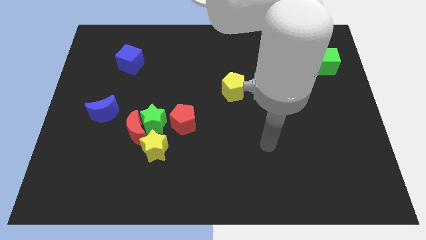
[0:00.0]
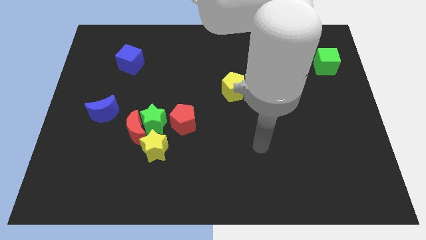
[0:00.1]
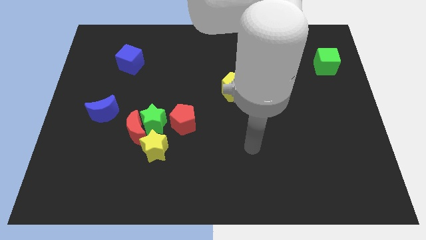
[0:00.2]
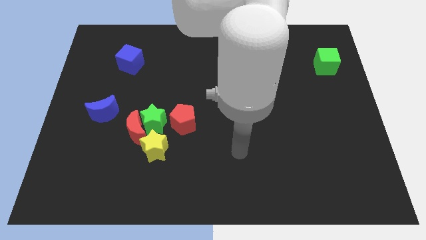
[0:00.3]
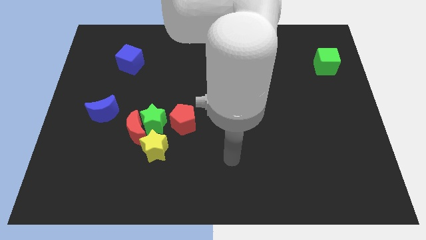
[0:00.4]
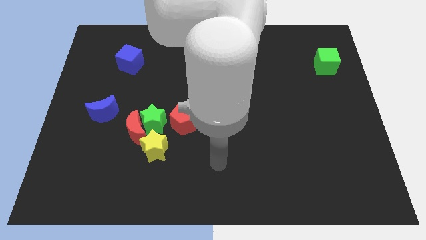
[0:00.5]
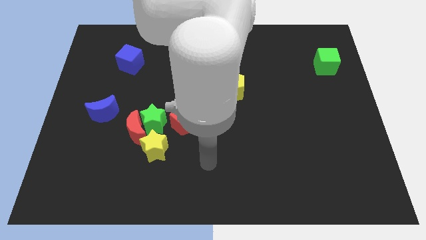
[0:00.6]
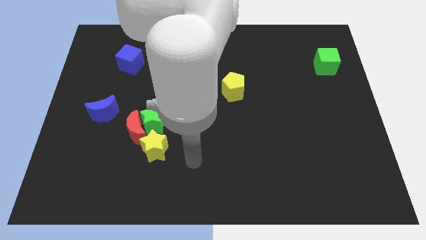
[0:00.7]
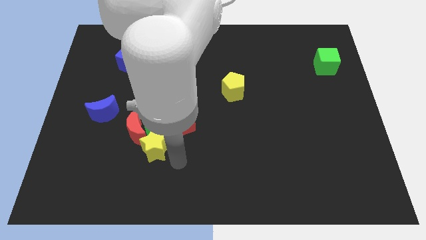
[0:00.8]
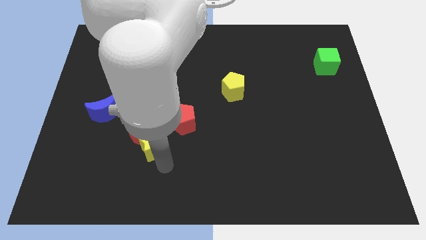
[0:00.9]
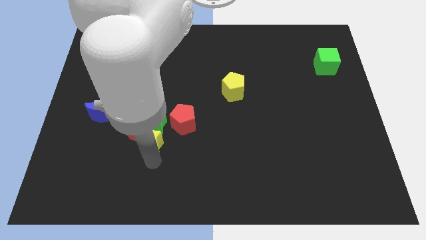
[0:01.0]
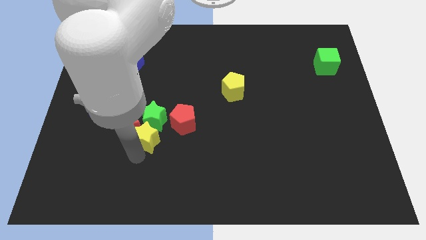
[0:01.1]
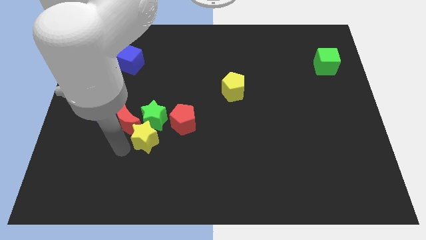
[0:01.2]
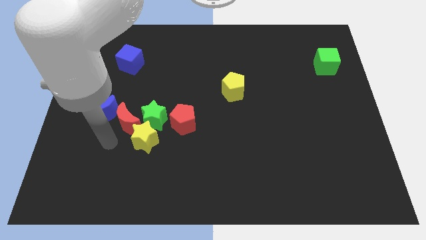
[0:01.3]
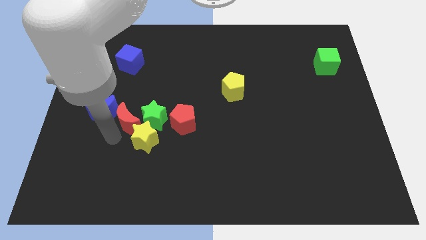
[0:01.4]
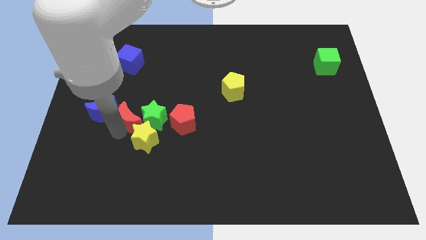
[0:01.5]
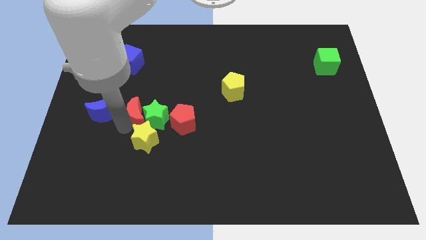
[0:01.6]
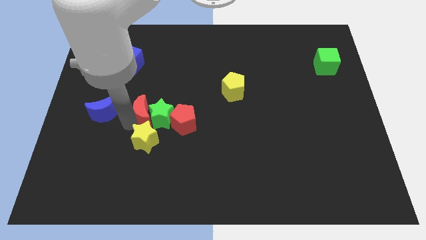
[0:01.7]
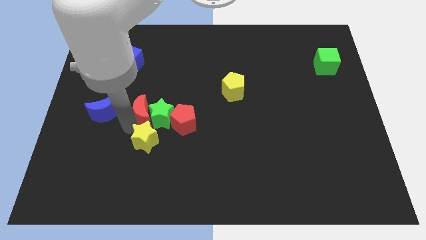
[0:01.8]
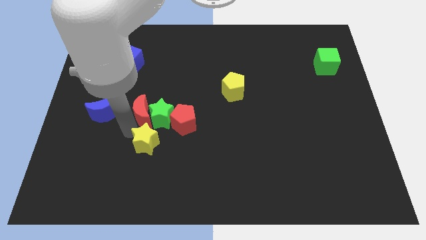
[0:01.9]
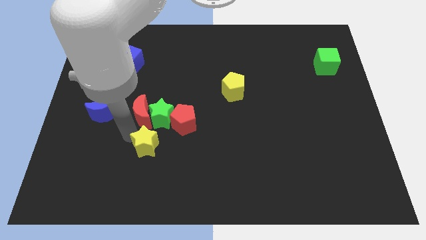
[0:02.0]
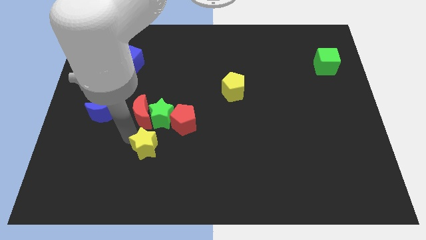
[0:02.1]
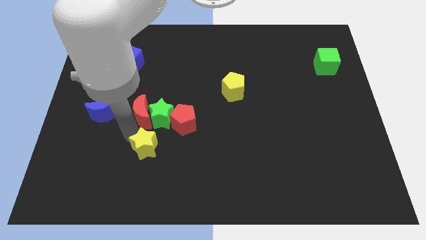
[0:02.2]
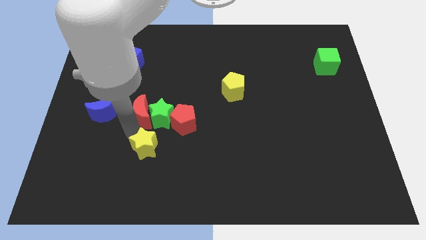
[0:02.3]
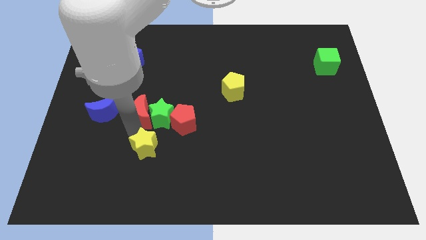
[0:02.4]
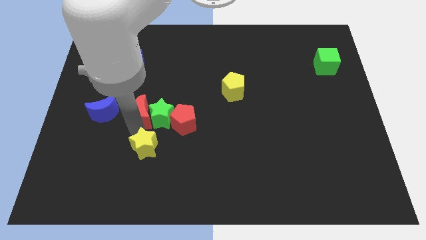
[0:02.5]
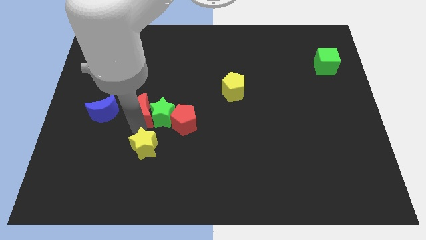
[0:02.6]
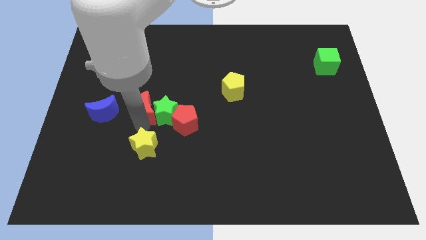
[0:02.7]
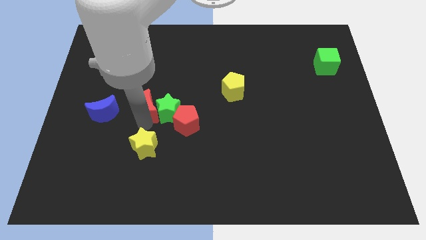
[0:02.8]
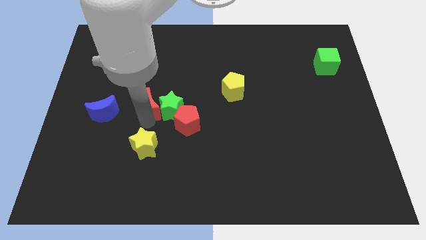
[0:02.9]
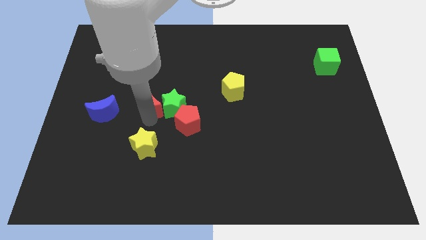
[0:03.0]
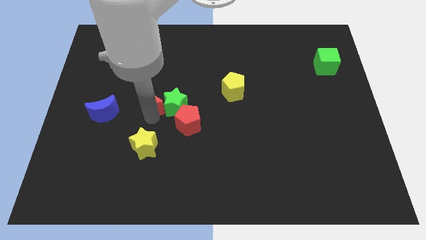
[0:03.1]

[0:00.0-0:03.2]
slide the red moon up and to the right a little bit

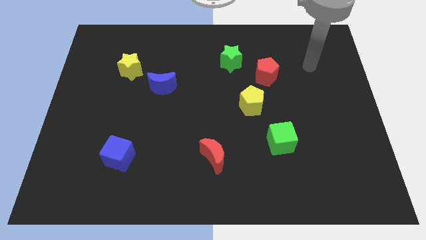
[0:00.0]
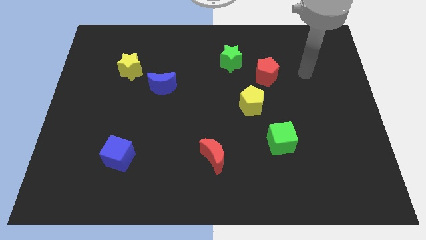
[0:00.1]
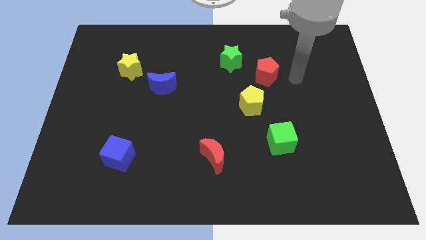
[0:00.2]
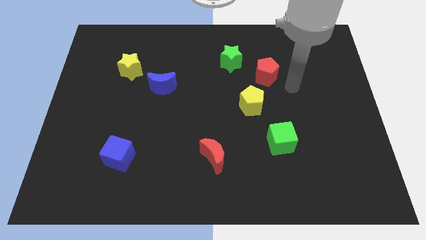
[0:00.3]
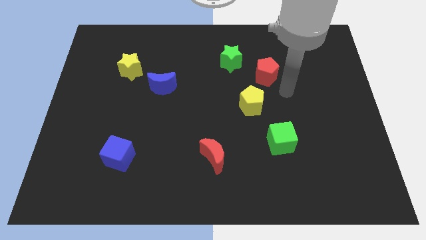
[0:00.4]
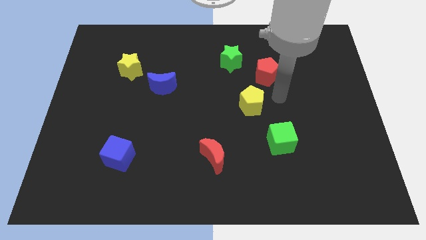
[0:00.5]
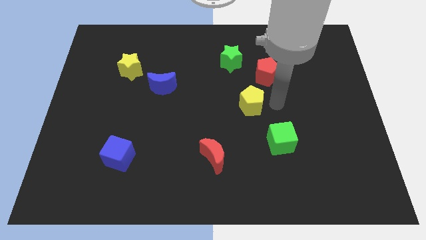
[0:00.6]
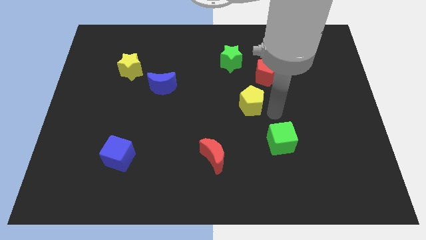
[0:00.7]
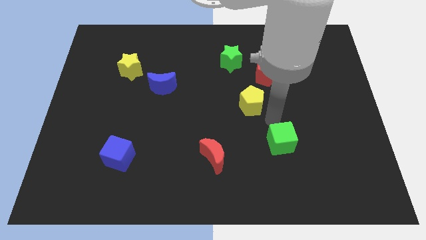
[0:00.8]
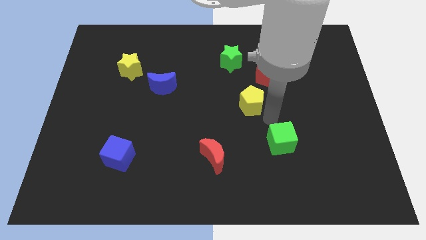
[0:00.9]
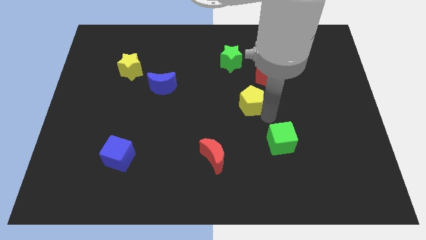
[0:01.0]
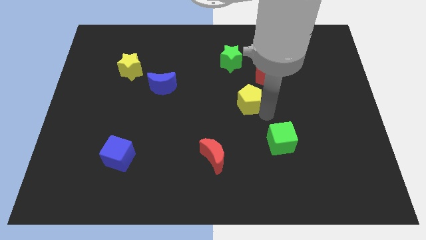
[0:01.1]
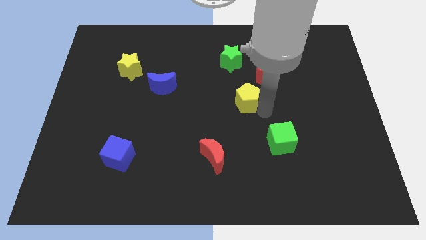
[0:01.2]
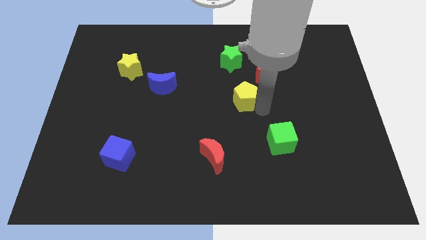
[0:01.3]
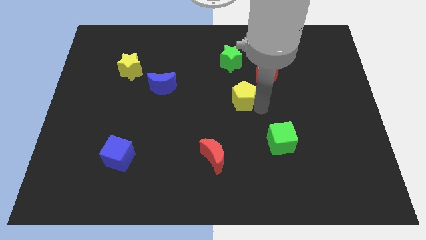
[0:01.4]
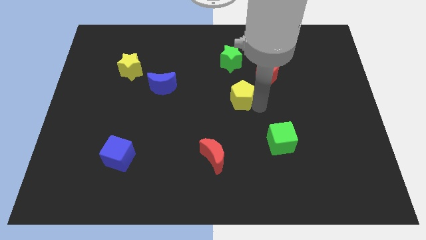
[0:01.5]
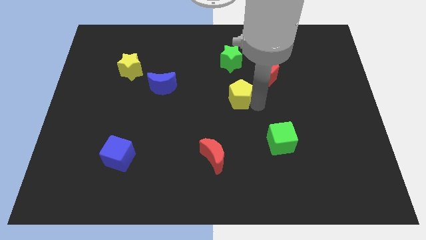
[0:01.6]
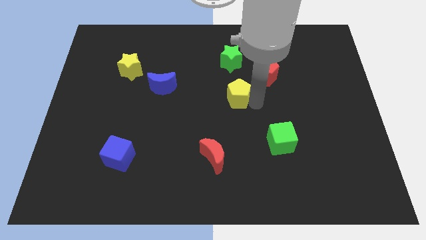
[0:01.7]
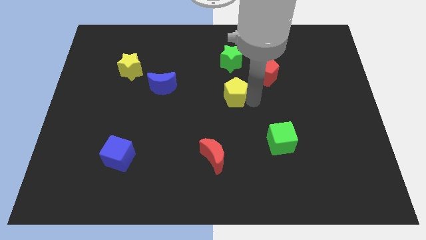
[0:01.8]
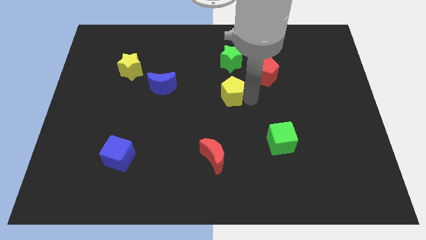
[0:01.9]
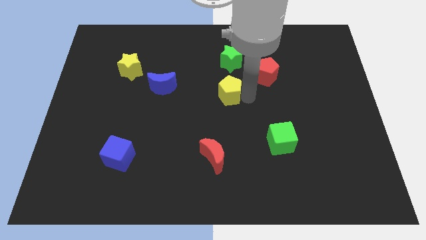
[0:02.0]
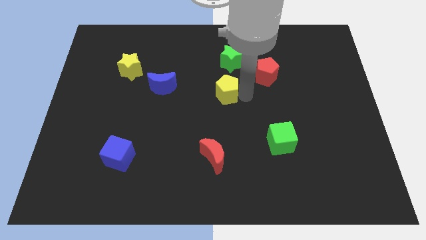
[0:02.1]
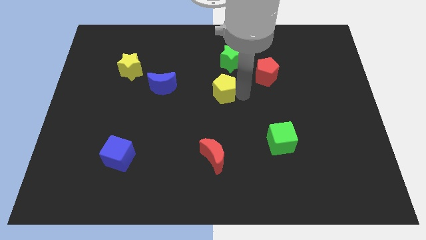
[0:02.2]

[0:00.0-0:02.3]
slightly push the yellow pentagon diagonally up and to the left

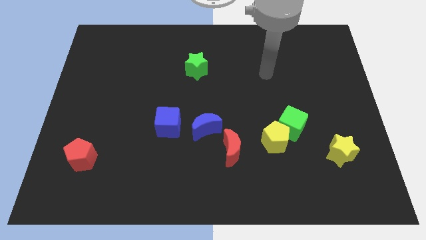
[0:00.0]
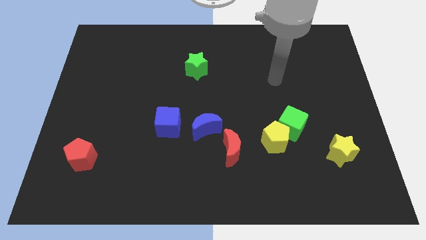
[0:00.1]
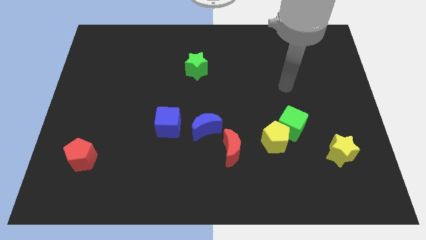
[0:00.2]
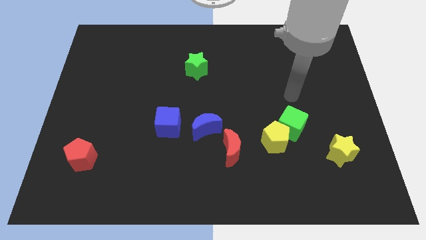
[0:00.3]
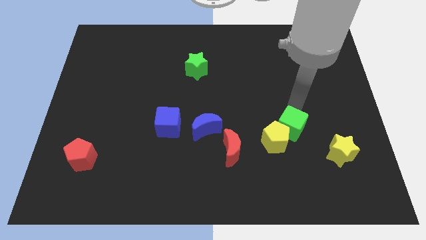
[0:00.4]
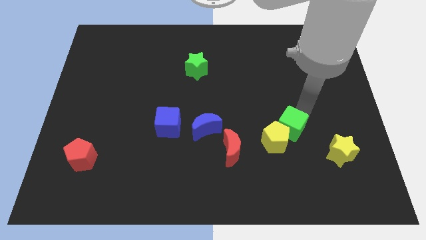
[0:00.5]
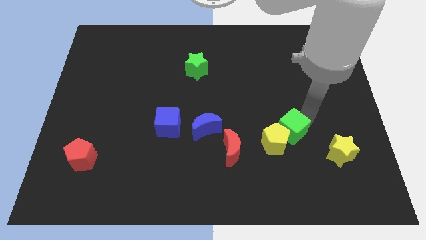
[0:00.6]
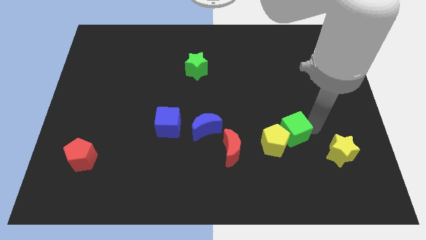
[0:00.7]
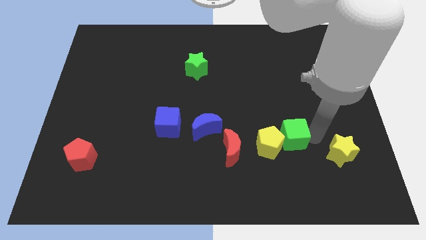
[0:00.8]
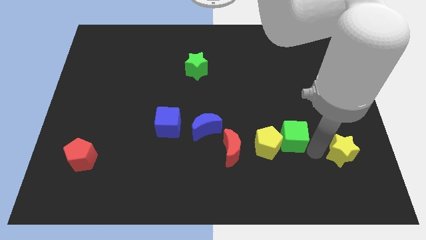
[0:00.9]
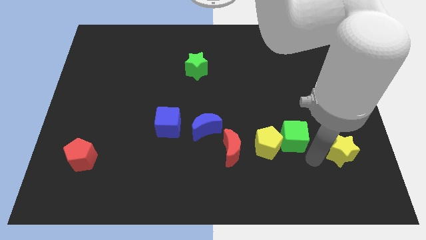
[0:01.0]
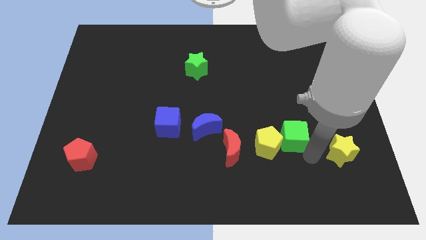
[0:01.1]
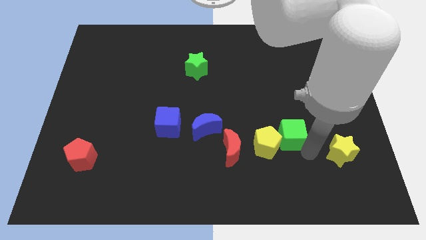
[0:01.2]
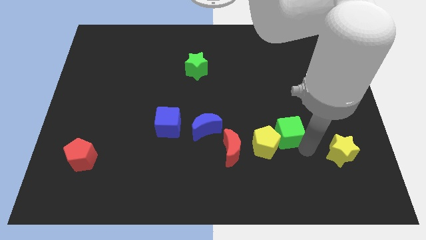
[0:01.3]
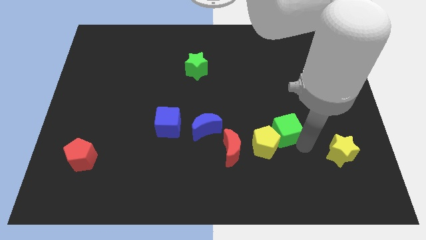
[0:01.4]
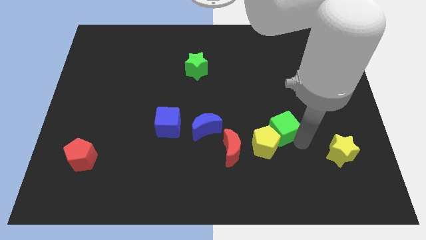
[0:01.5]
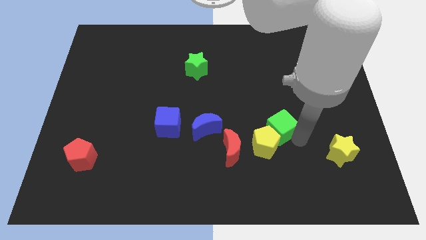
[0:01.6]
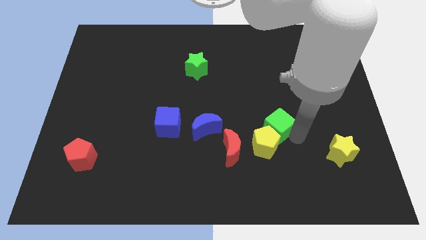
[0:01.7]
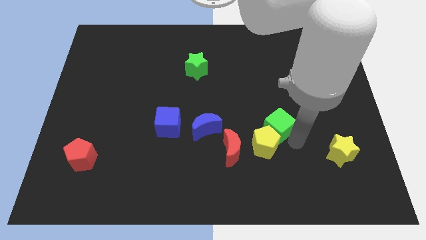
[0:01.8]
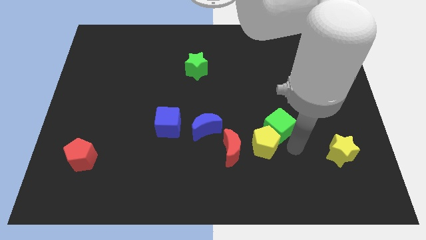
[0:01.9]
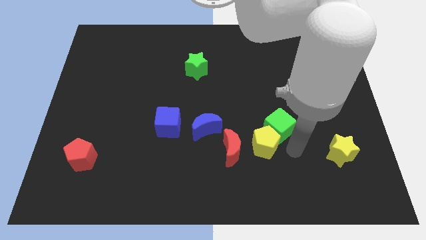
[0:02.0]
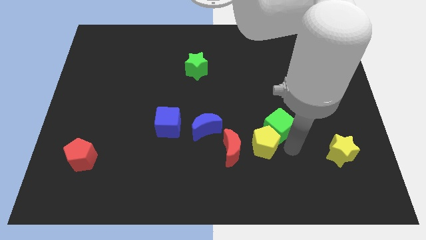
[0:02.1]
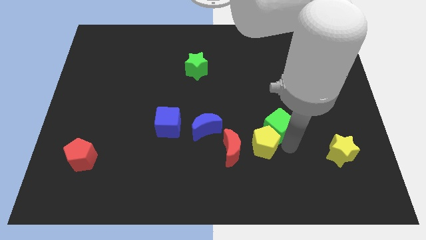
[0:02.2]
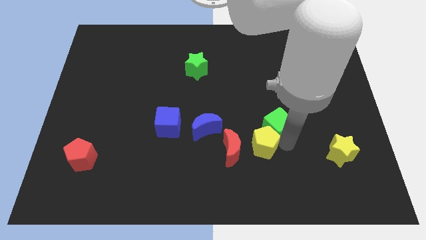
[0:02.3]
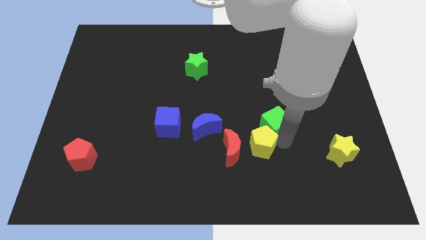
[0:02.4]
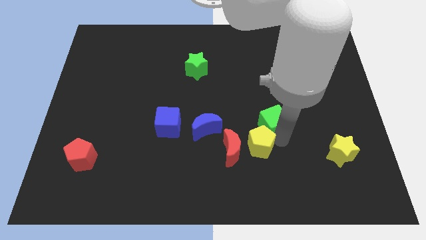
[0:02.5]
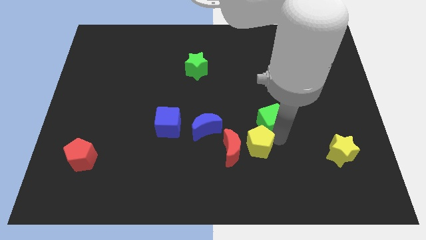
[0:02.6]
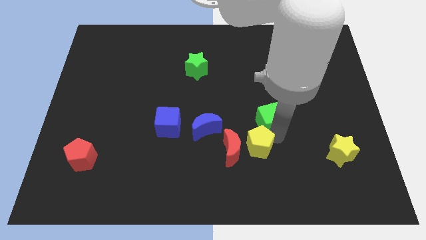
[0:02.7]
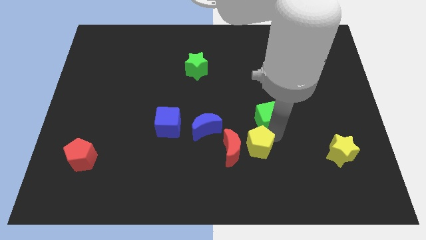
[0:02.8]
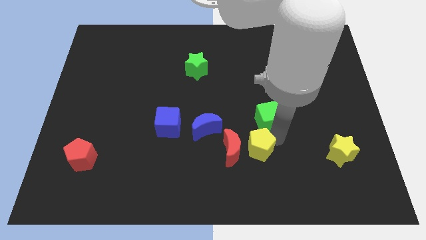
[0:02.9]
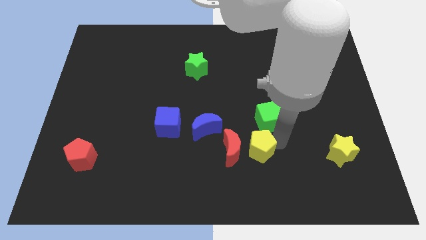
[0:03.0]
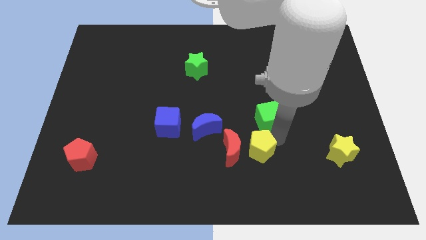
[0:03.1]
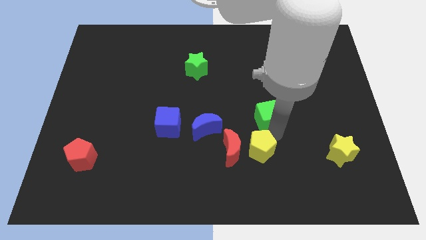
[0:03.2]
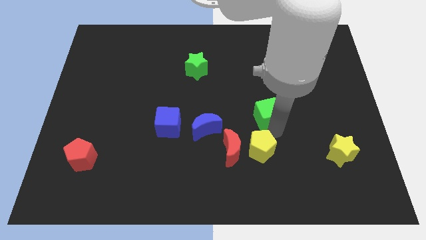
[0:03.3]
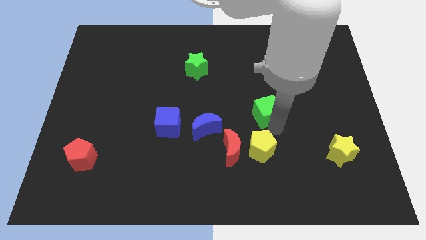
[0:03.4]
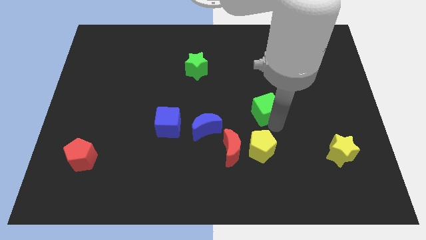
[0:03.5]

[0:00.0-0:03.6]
push the green cube a little bit diagonally upwards and left
